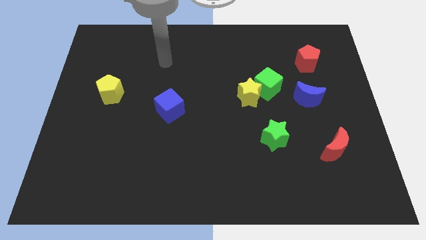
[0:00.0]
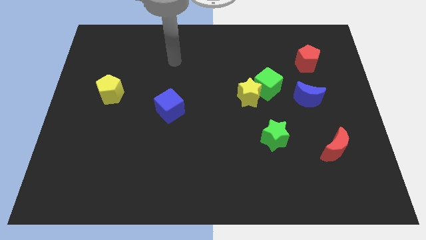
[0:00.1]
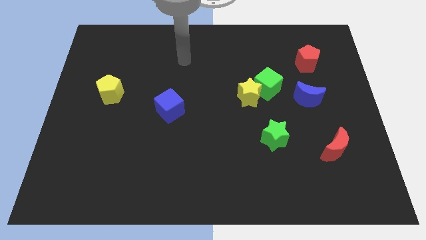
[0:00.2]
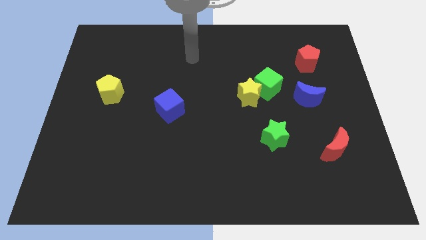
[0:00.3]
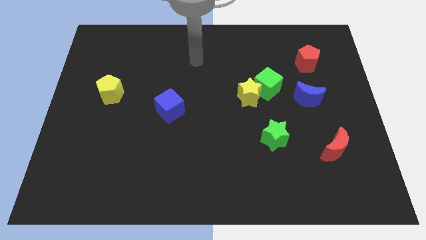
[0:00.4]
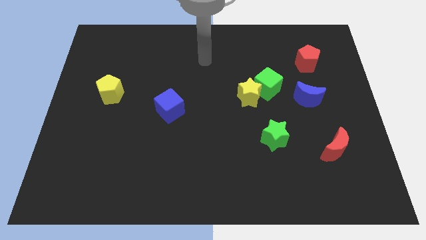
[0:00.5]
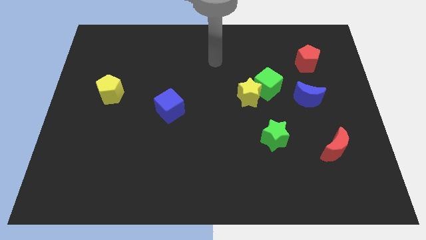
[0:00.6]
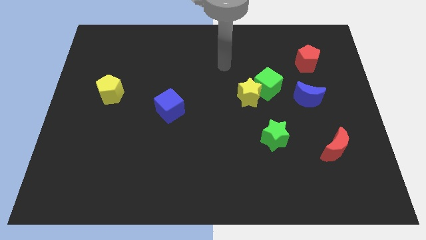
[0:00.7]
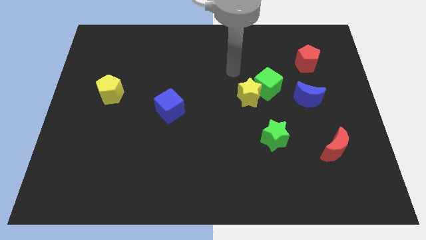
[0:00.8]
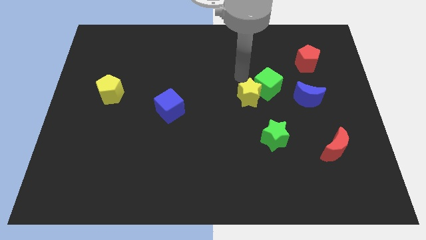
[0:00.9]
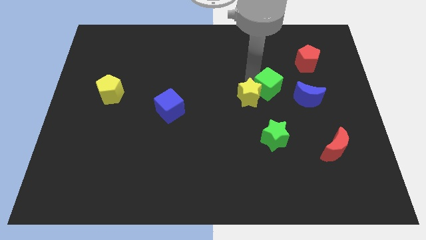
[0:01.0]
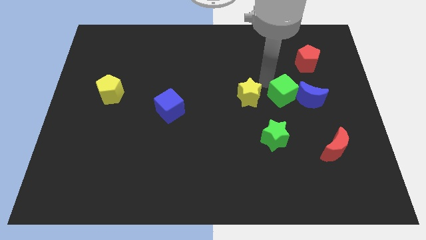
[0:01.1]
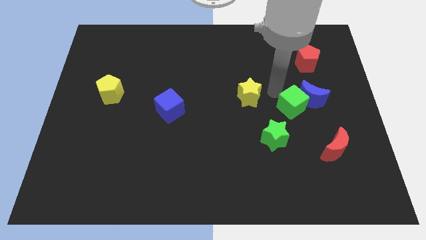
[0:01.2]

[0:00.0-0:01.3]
move the yellow star away from the green cube

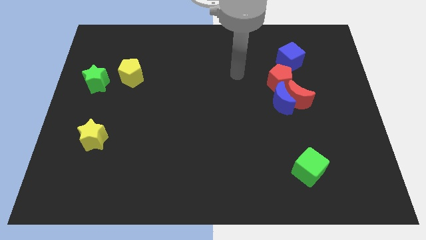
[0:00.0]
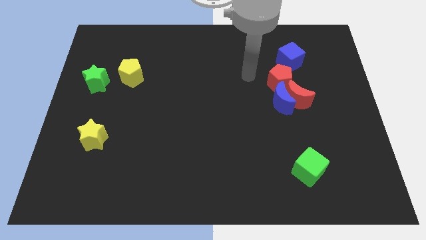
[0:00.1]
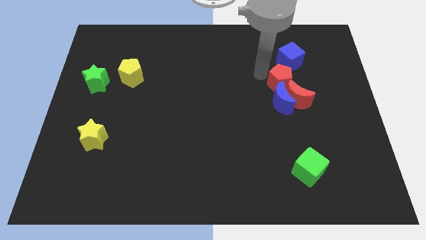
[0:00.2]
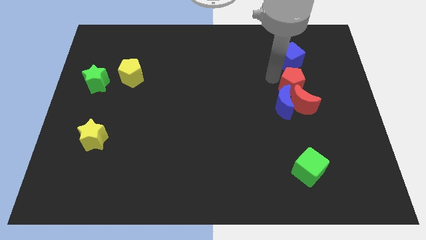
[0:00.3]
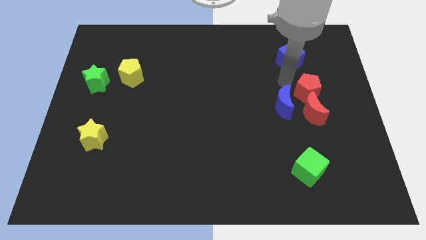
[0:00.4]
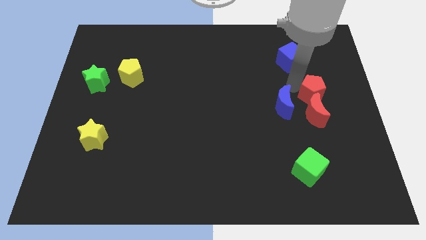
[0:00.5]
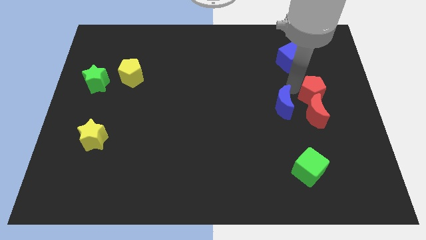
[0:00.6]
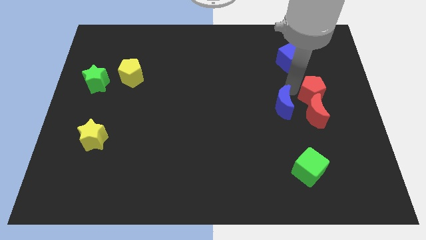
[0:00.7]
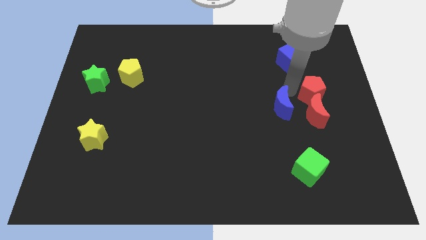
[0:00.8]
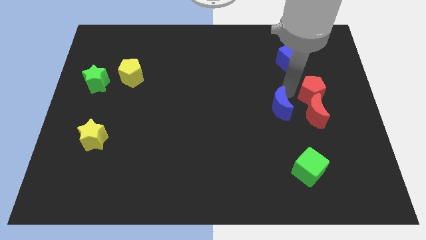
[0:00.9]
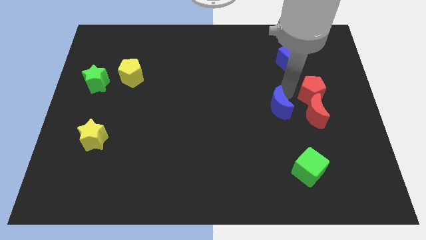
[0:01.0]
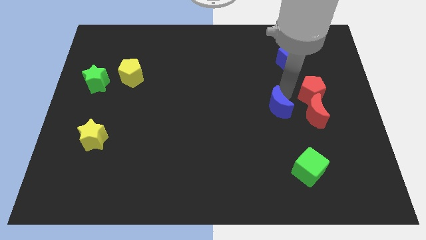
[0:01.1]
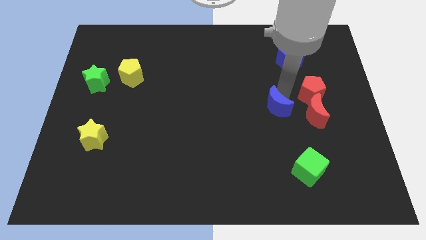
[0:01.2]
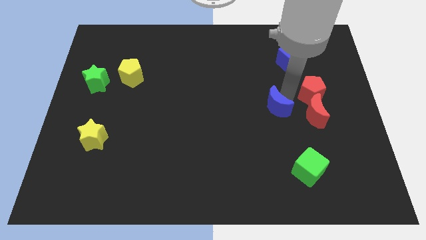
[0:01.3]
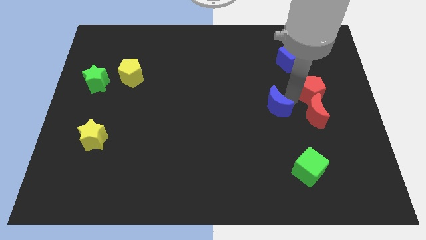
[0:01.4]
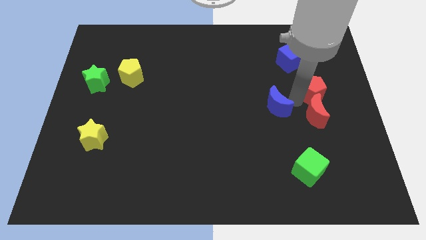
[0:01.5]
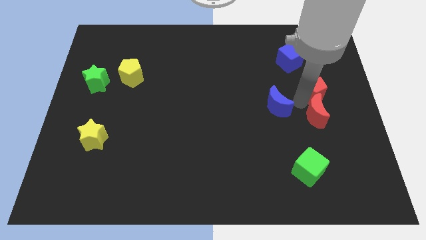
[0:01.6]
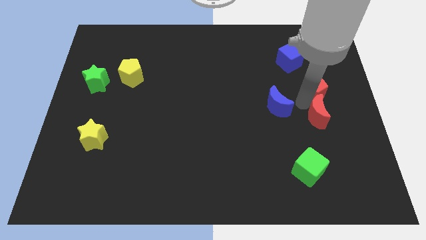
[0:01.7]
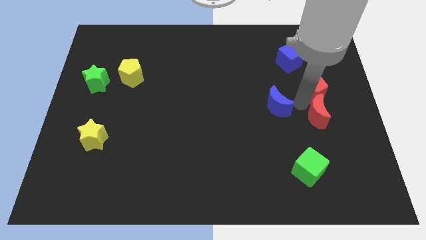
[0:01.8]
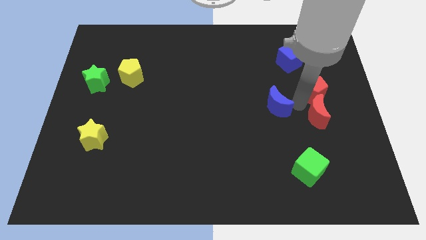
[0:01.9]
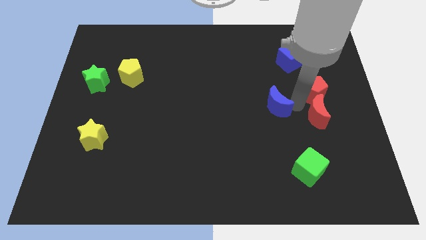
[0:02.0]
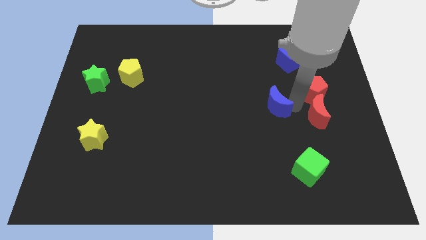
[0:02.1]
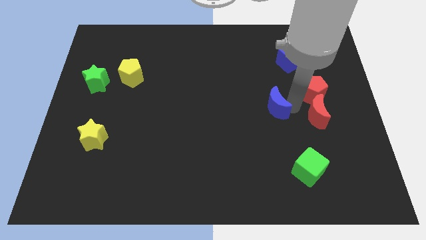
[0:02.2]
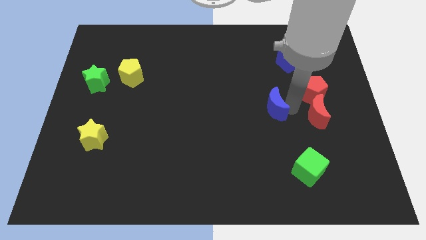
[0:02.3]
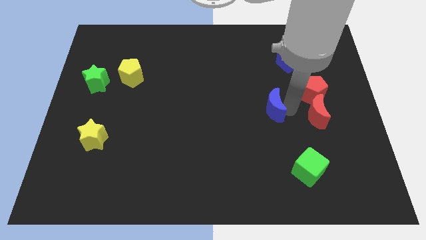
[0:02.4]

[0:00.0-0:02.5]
move the blue moon away from the red moon and red pentagon

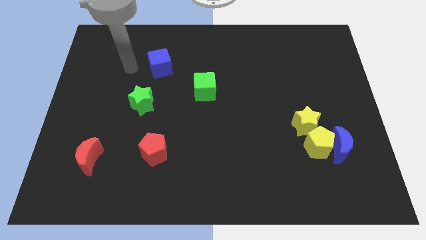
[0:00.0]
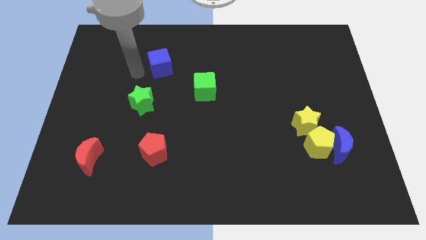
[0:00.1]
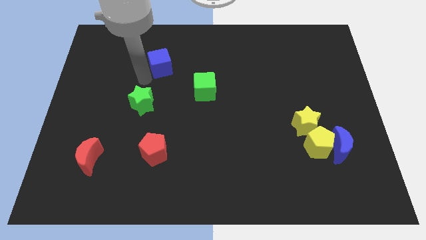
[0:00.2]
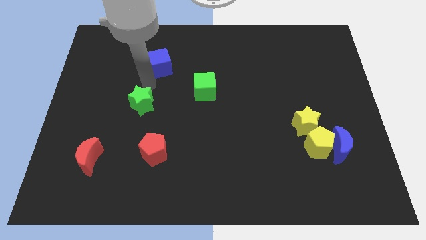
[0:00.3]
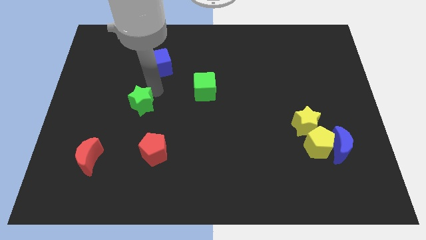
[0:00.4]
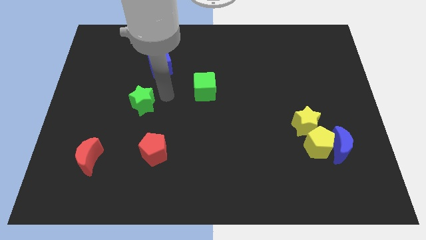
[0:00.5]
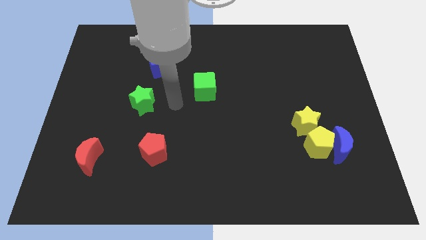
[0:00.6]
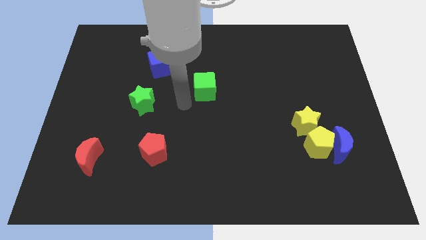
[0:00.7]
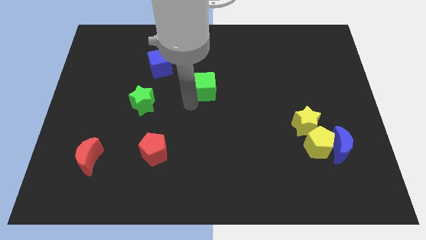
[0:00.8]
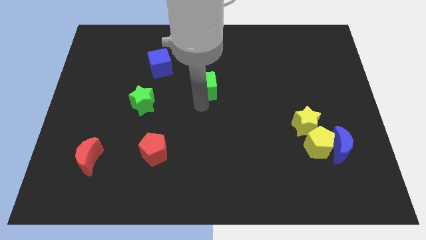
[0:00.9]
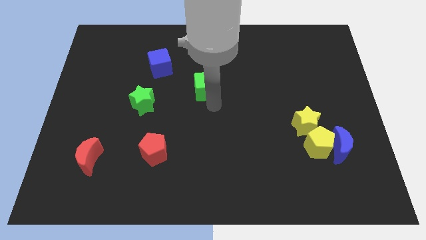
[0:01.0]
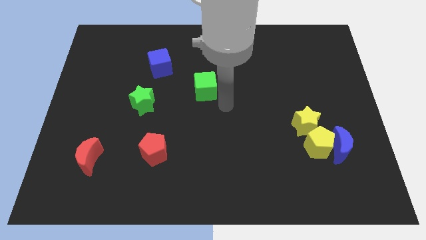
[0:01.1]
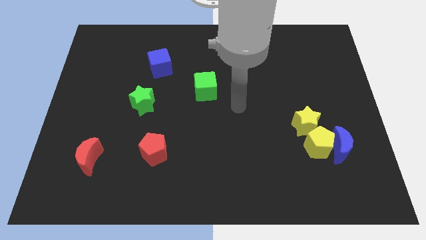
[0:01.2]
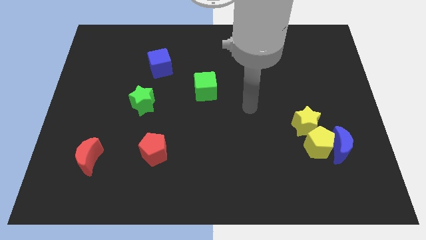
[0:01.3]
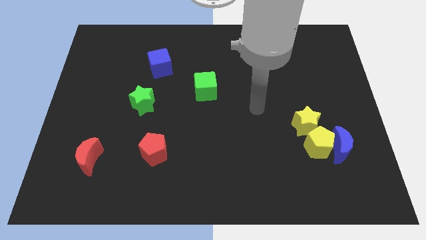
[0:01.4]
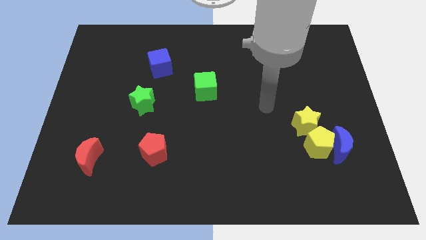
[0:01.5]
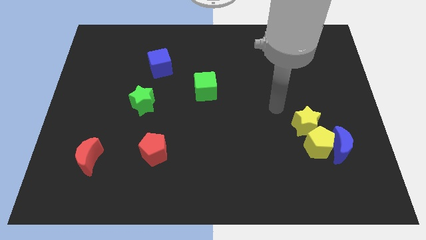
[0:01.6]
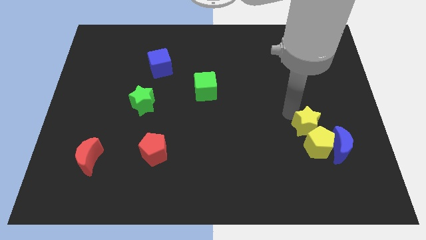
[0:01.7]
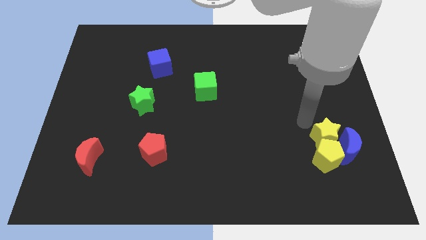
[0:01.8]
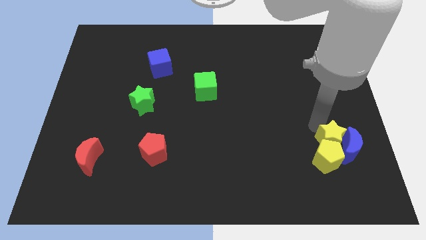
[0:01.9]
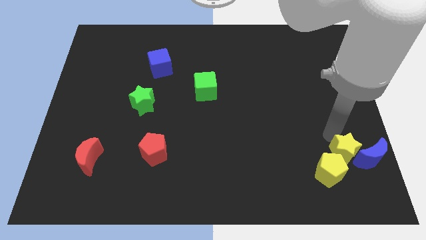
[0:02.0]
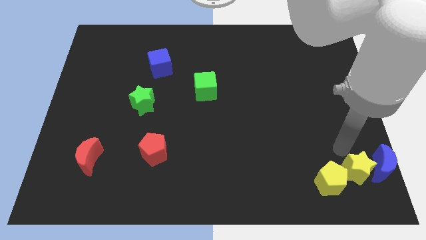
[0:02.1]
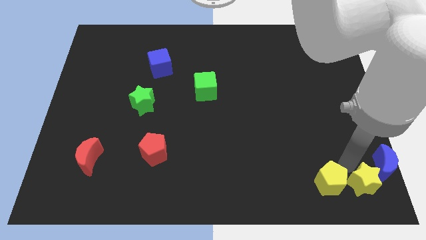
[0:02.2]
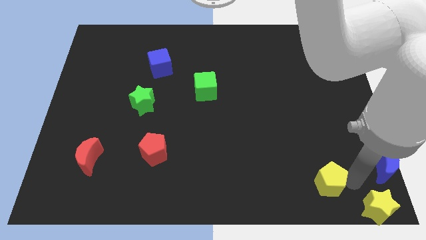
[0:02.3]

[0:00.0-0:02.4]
move the yellow pentagon away from the blue moon and yellow star

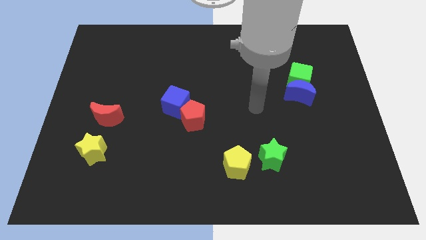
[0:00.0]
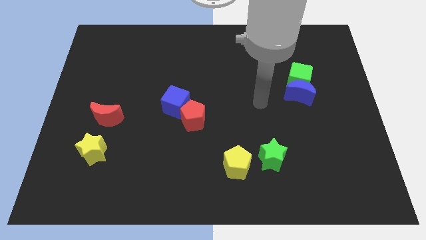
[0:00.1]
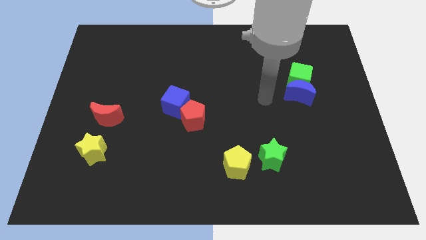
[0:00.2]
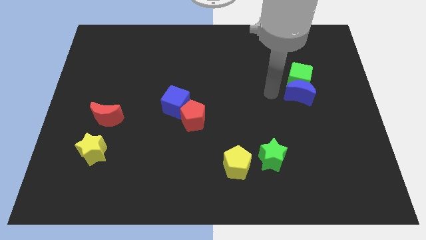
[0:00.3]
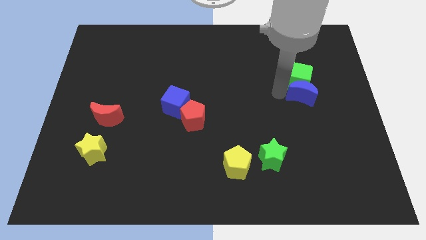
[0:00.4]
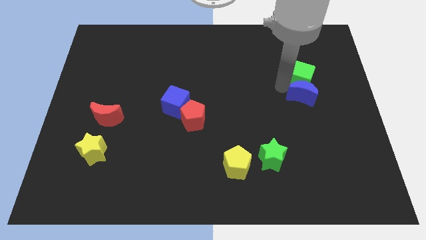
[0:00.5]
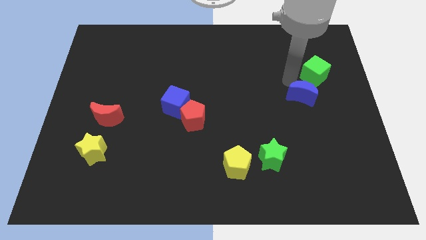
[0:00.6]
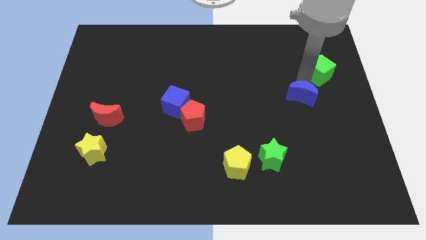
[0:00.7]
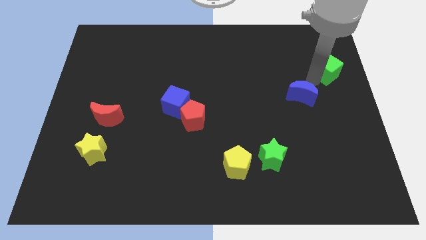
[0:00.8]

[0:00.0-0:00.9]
separate the blue moon from the green cube

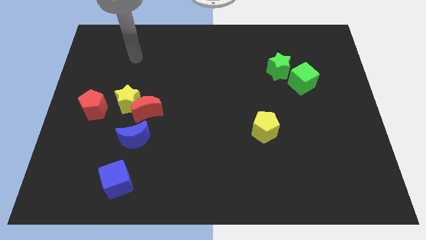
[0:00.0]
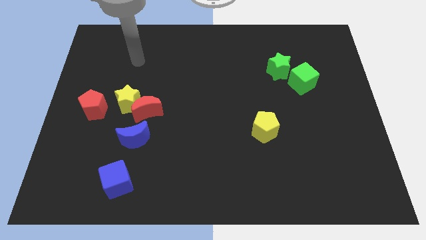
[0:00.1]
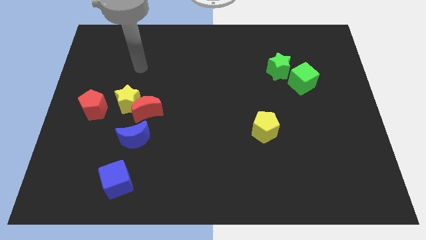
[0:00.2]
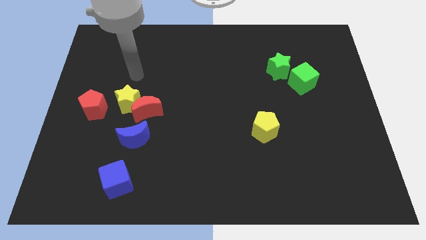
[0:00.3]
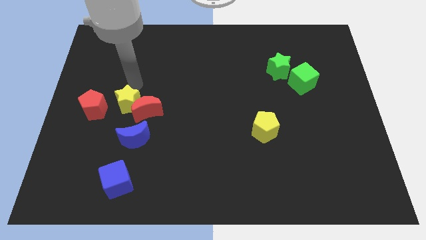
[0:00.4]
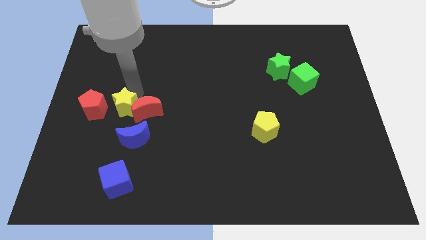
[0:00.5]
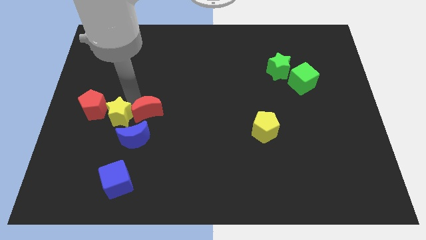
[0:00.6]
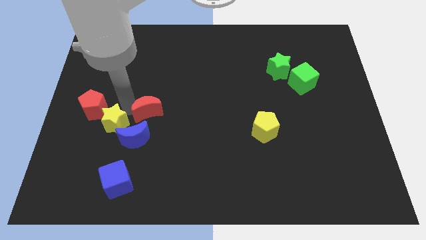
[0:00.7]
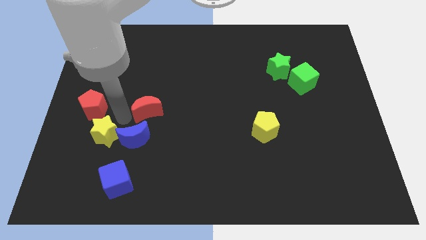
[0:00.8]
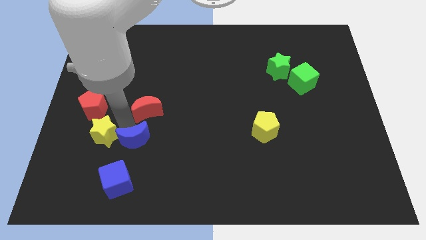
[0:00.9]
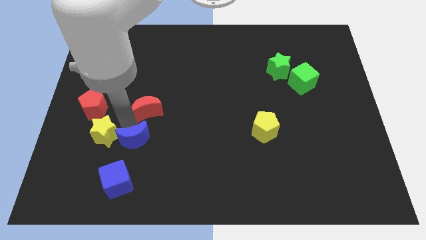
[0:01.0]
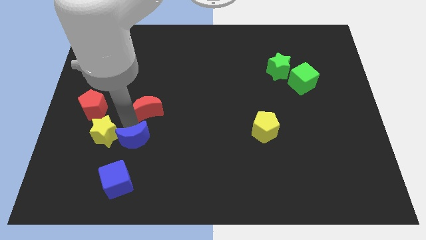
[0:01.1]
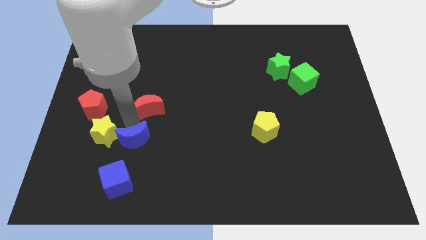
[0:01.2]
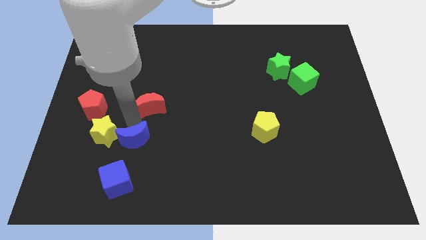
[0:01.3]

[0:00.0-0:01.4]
pull the red moon apart from the yellow star and blue moon

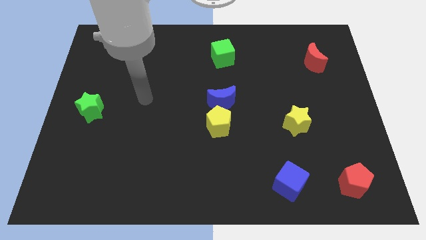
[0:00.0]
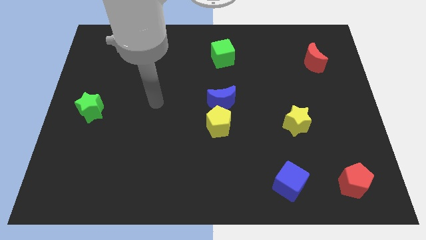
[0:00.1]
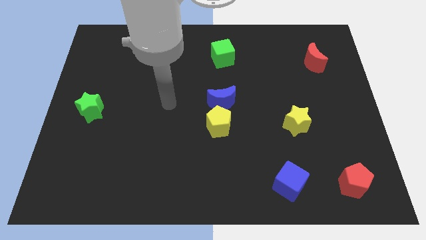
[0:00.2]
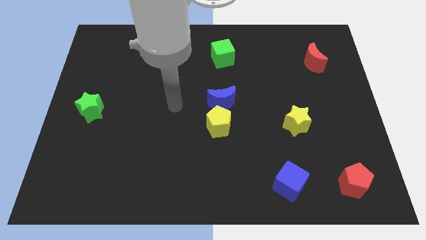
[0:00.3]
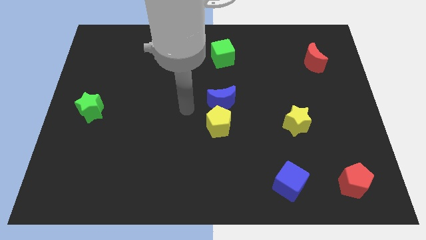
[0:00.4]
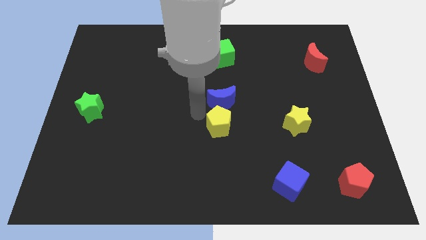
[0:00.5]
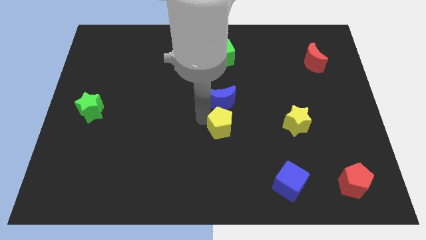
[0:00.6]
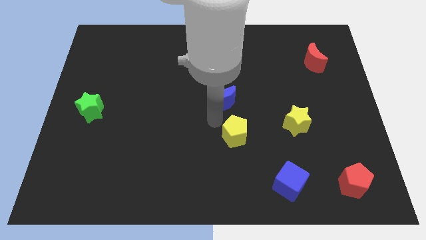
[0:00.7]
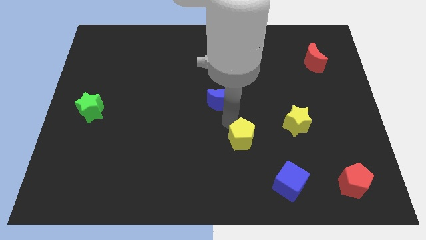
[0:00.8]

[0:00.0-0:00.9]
pull the blue moon apart from the yellow pentagon
